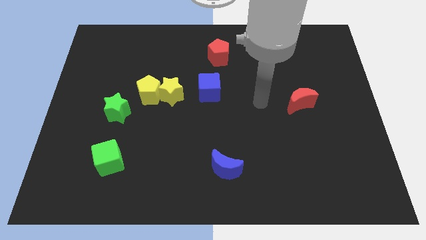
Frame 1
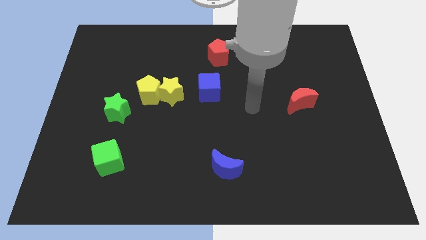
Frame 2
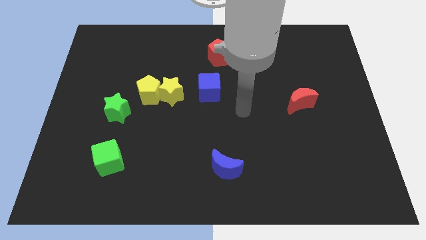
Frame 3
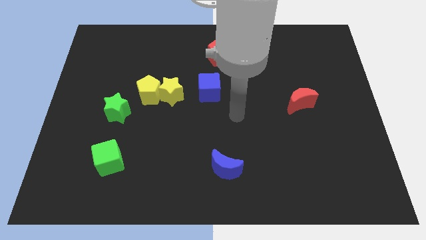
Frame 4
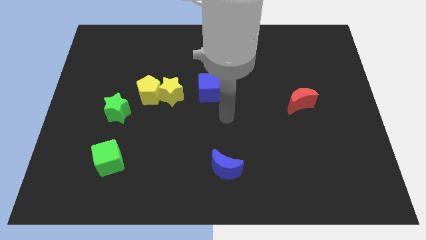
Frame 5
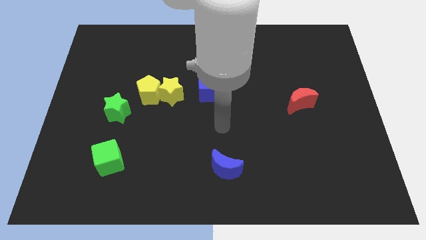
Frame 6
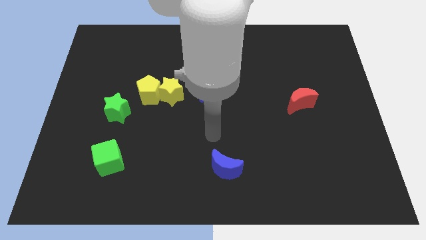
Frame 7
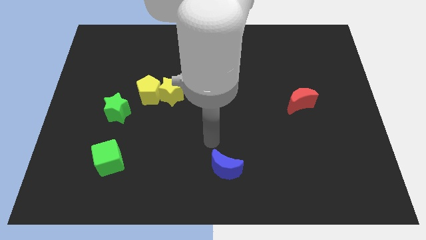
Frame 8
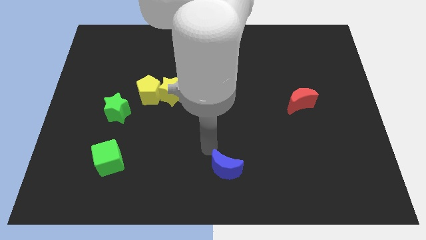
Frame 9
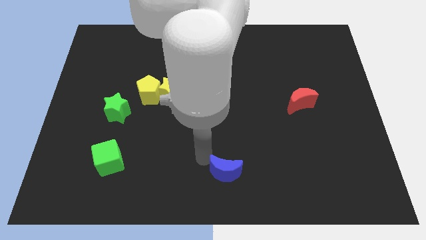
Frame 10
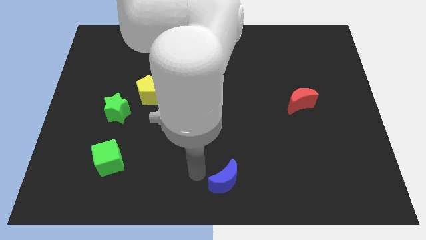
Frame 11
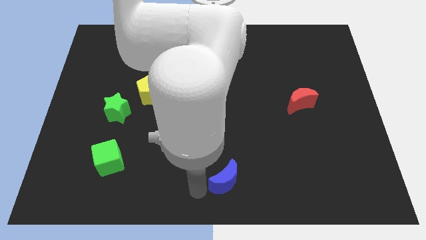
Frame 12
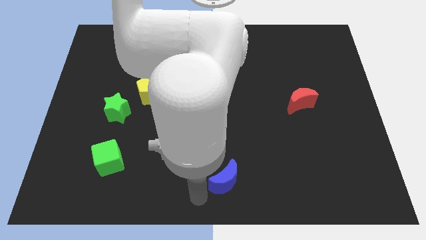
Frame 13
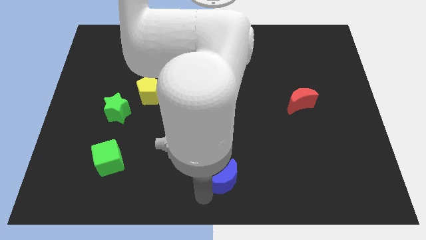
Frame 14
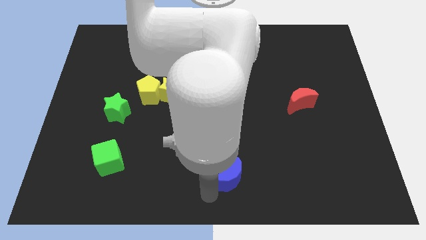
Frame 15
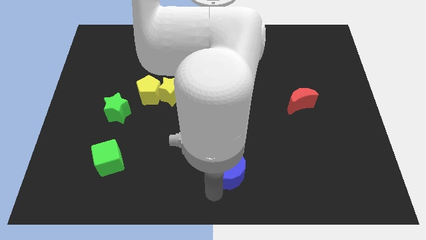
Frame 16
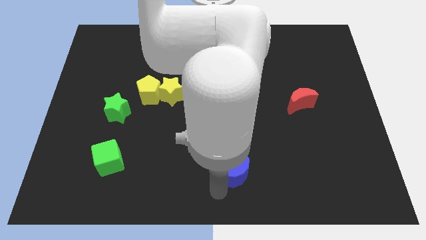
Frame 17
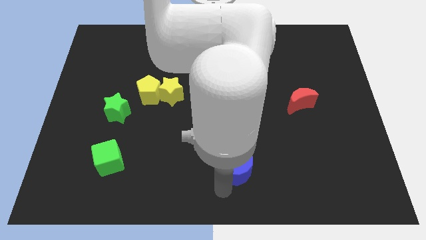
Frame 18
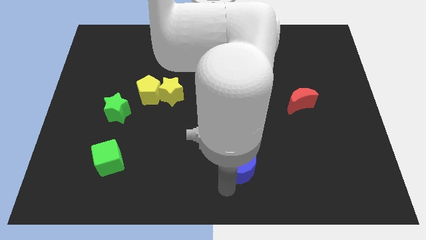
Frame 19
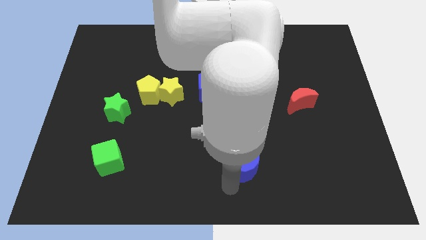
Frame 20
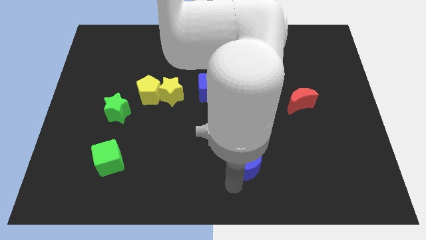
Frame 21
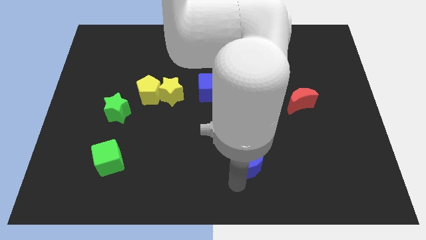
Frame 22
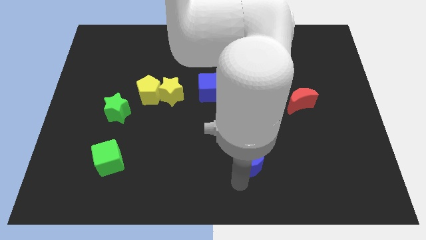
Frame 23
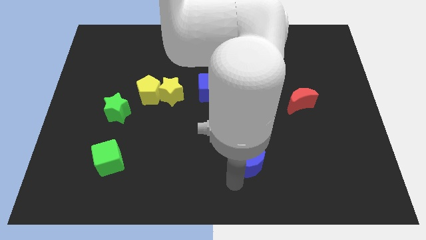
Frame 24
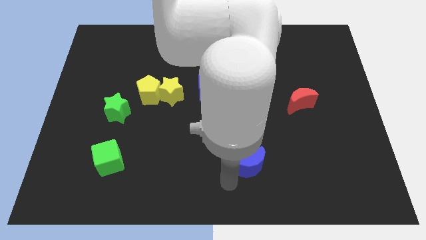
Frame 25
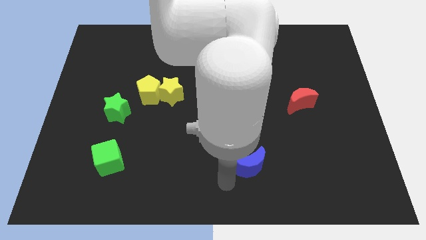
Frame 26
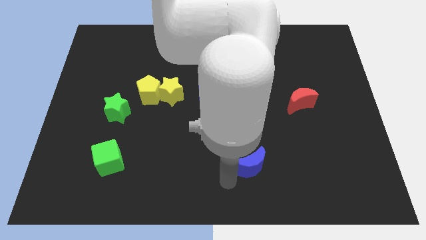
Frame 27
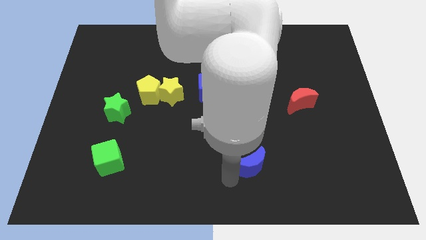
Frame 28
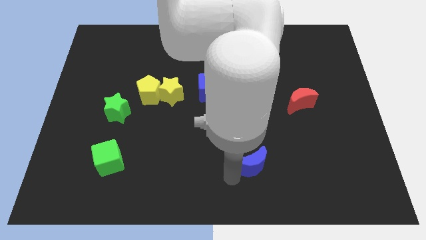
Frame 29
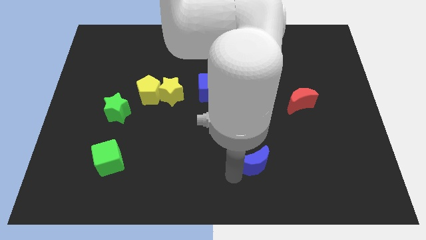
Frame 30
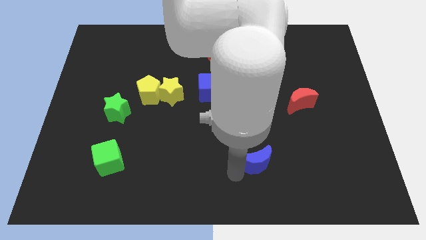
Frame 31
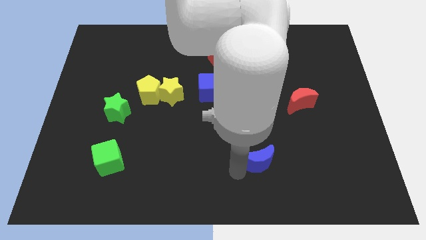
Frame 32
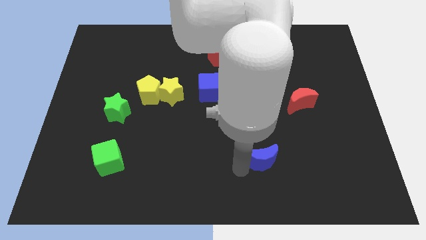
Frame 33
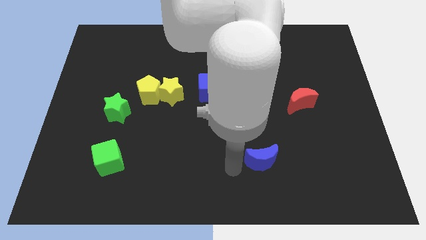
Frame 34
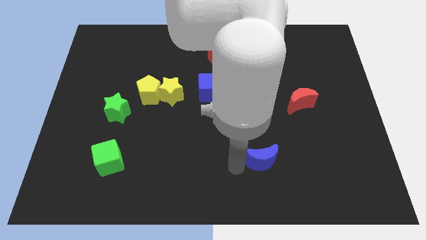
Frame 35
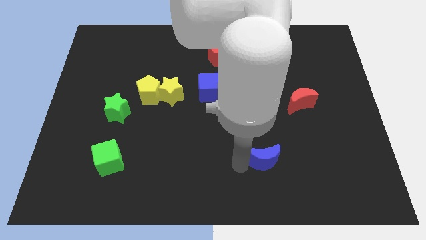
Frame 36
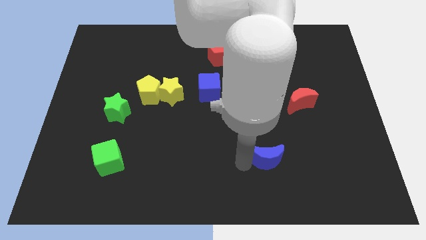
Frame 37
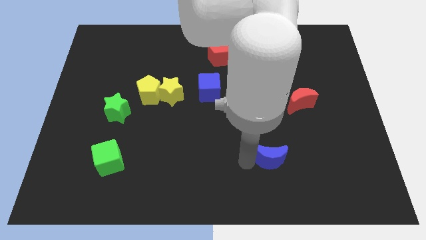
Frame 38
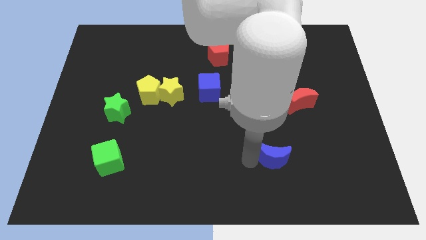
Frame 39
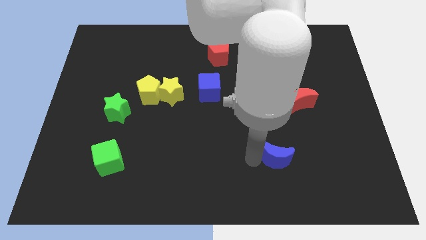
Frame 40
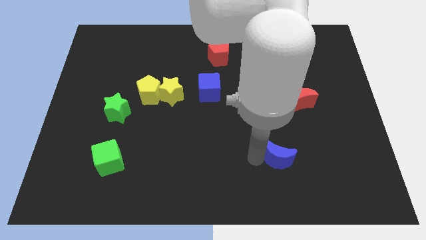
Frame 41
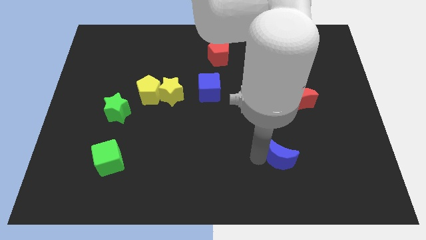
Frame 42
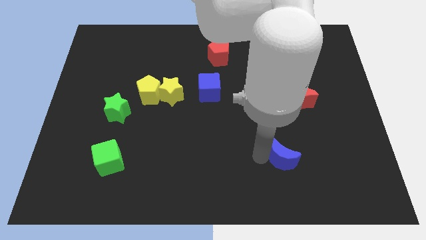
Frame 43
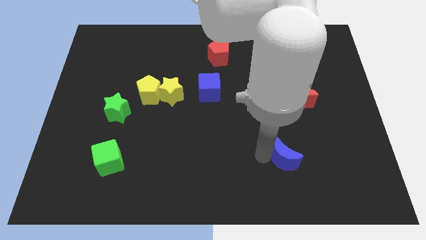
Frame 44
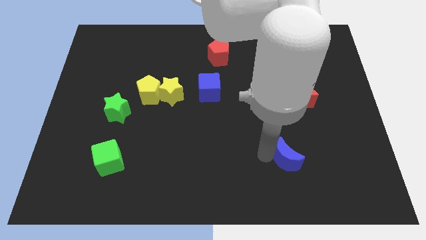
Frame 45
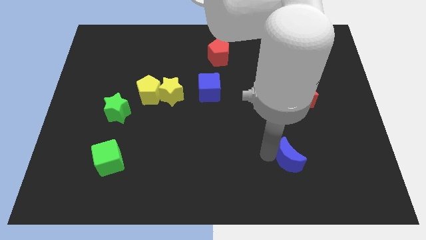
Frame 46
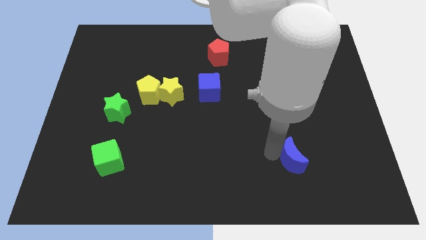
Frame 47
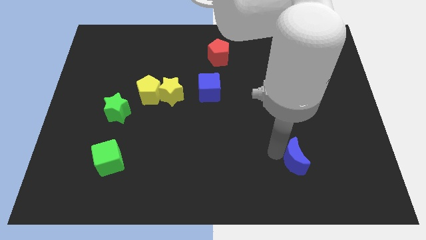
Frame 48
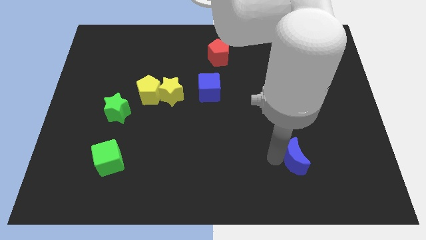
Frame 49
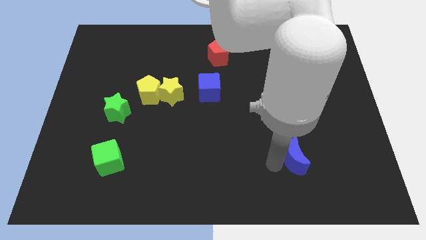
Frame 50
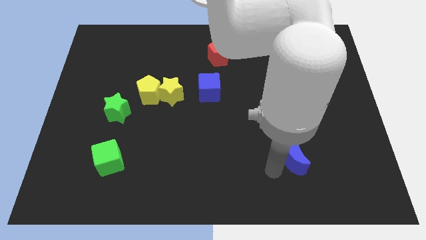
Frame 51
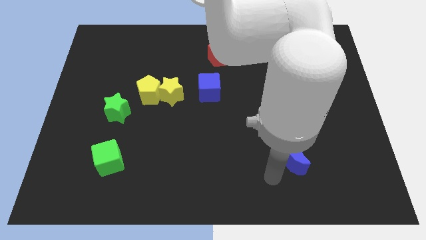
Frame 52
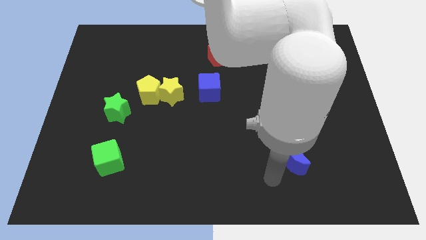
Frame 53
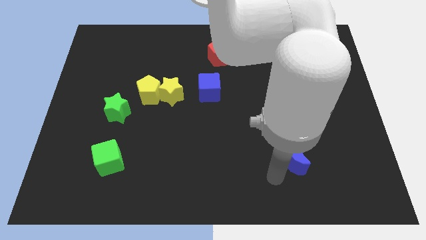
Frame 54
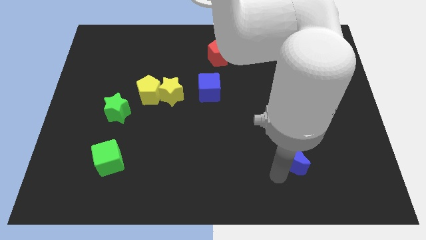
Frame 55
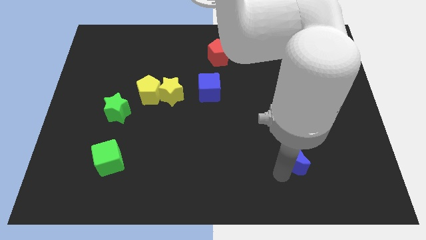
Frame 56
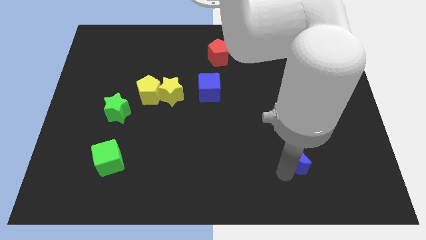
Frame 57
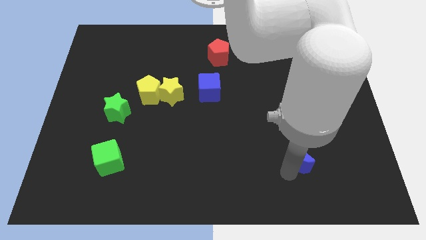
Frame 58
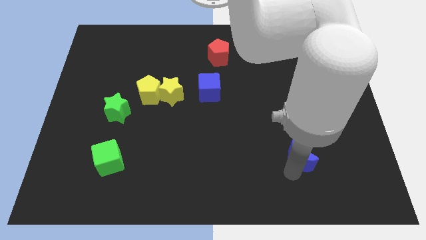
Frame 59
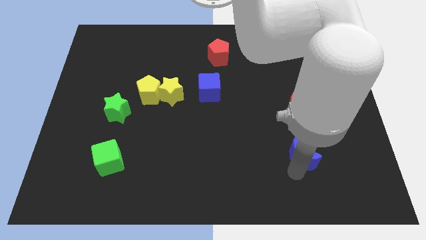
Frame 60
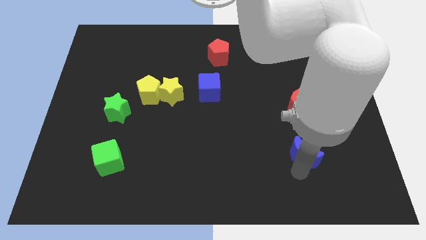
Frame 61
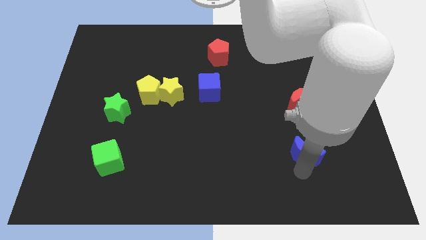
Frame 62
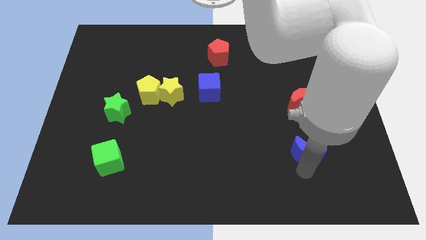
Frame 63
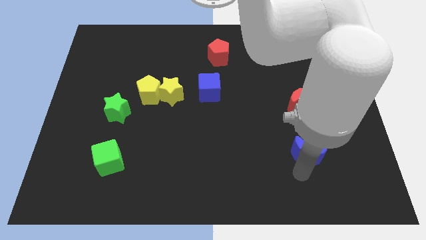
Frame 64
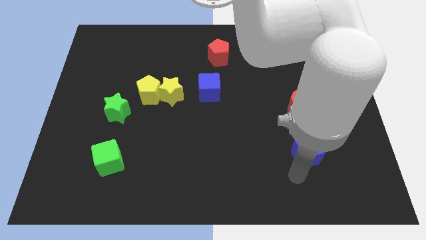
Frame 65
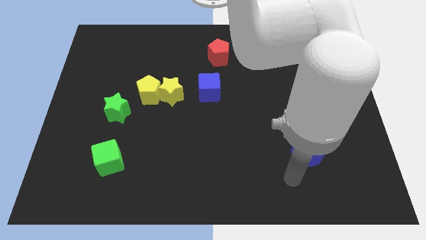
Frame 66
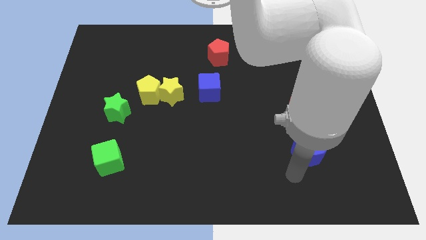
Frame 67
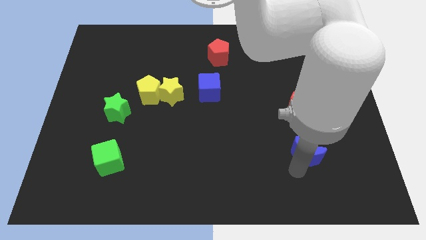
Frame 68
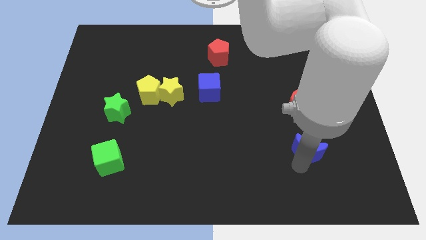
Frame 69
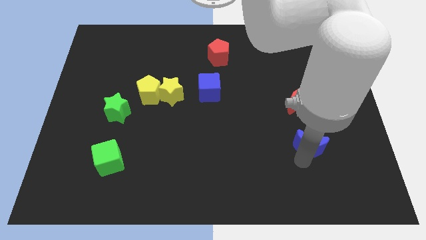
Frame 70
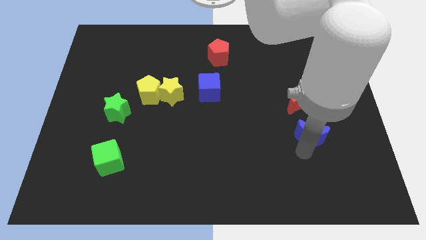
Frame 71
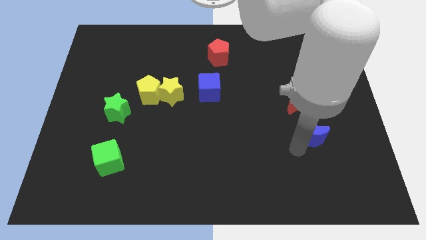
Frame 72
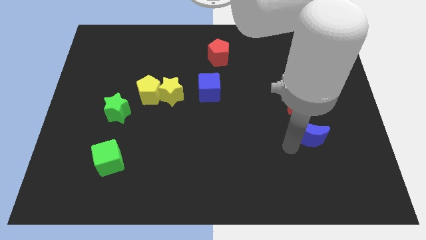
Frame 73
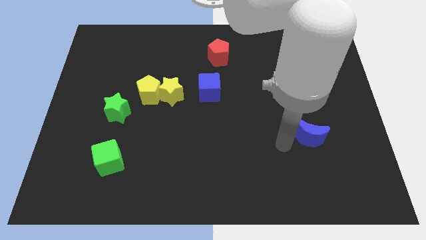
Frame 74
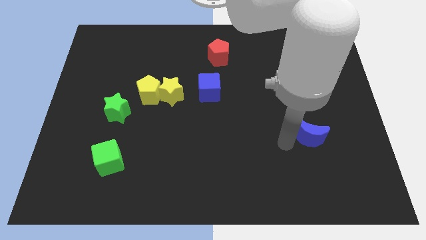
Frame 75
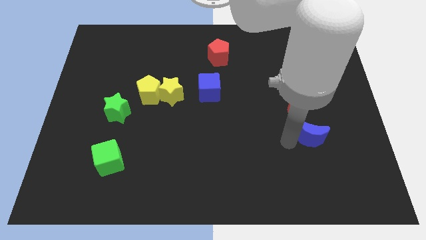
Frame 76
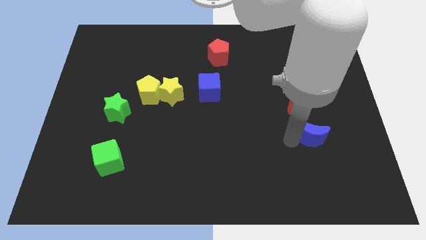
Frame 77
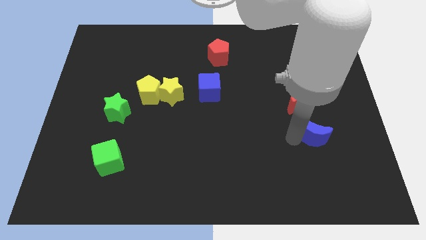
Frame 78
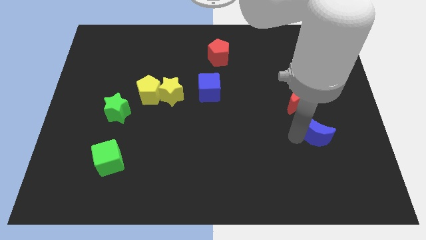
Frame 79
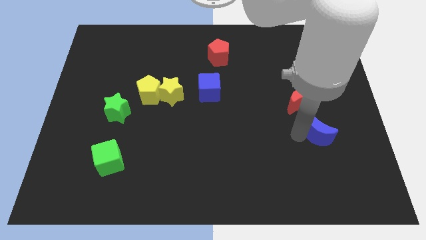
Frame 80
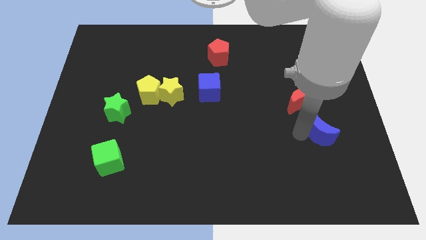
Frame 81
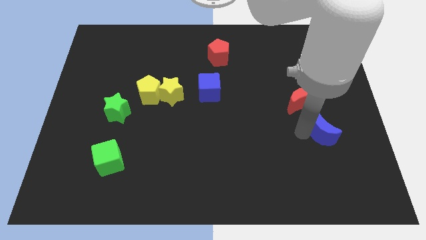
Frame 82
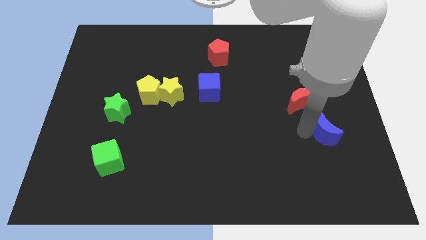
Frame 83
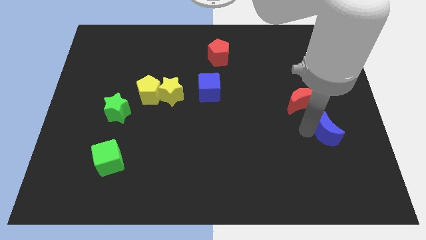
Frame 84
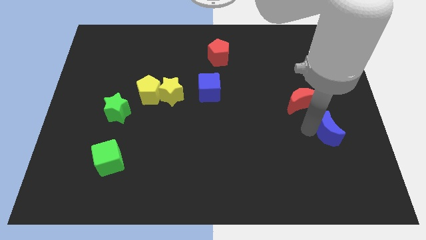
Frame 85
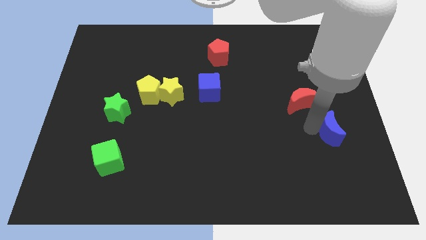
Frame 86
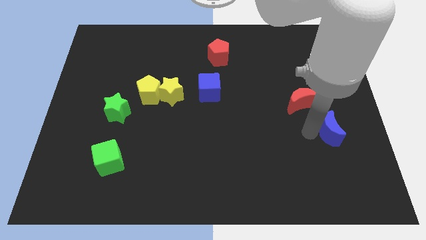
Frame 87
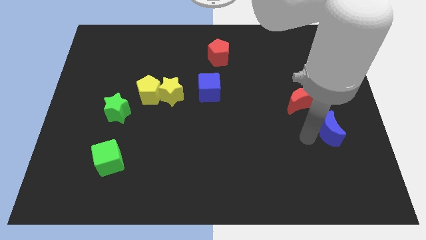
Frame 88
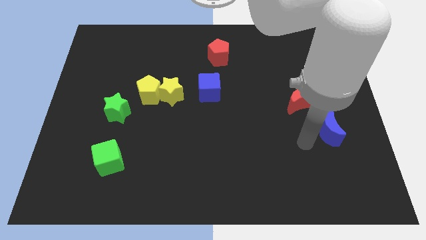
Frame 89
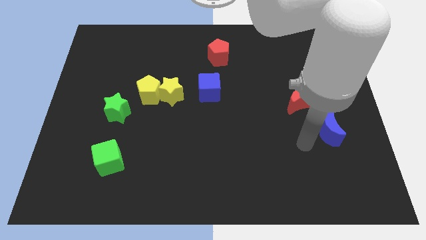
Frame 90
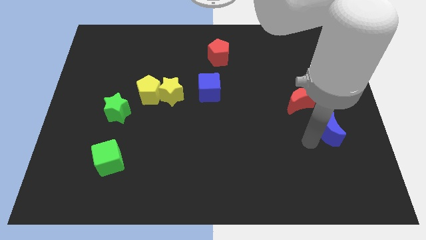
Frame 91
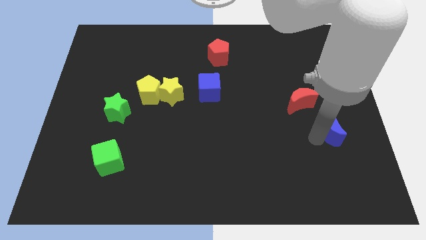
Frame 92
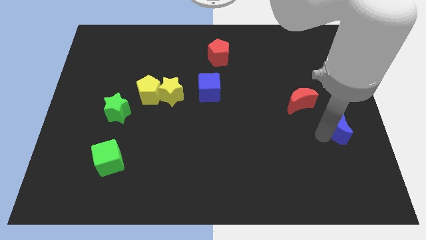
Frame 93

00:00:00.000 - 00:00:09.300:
slide the blue moon to the right side of the board
